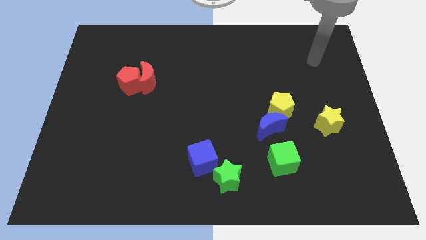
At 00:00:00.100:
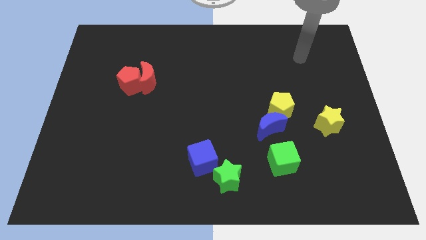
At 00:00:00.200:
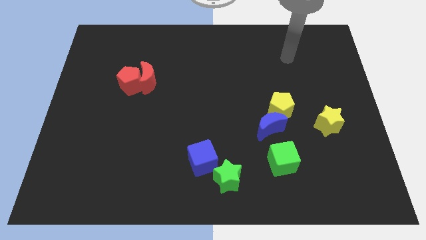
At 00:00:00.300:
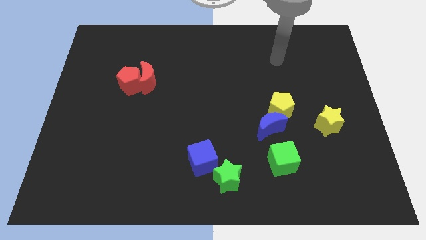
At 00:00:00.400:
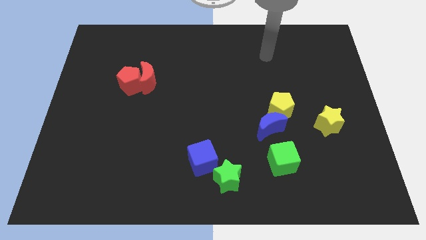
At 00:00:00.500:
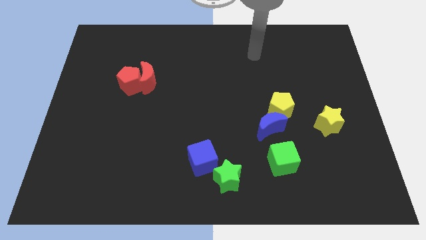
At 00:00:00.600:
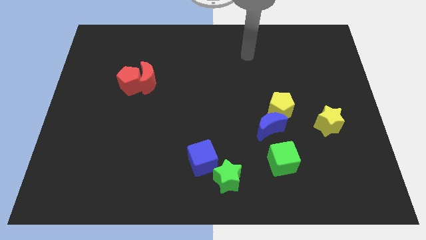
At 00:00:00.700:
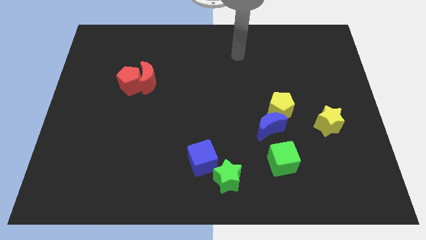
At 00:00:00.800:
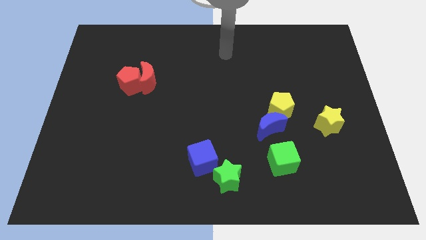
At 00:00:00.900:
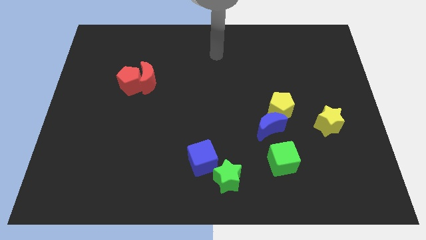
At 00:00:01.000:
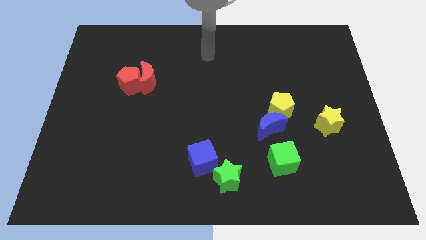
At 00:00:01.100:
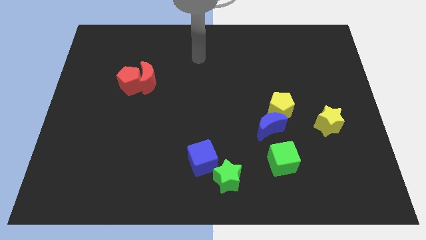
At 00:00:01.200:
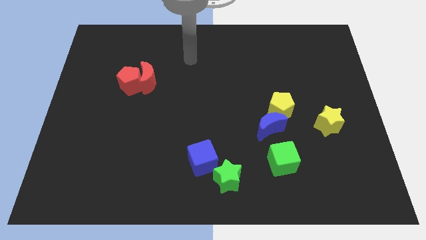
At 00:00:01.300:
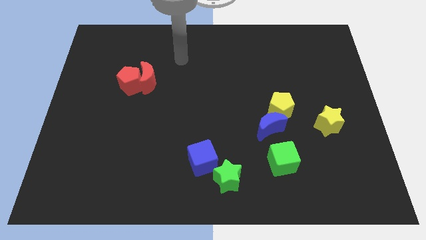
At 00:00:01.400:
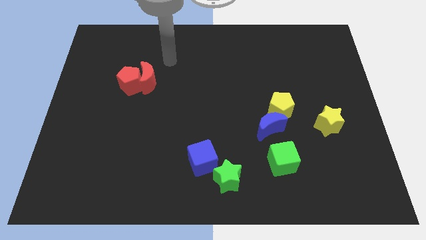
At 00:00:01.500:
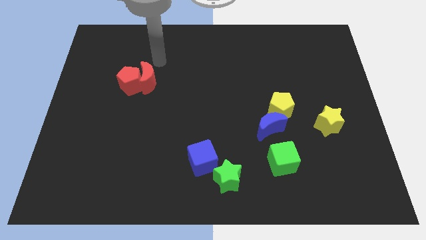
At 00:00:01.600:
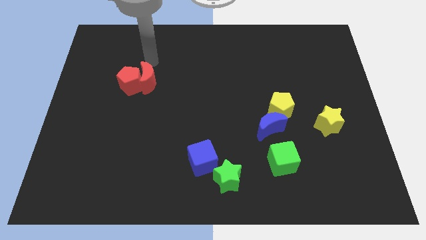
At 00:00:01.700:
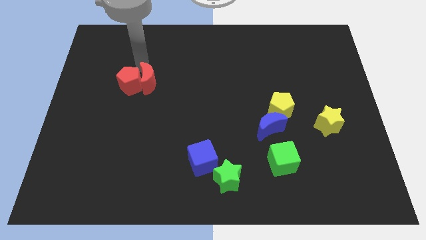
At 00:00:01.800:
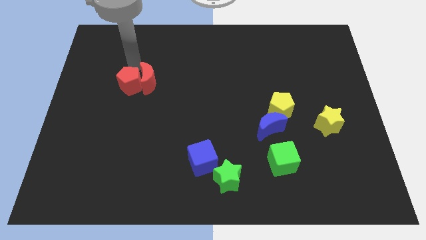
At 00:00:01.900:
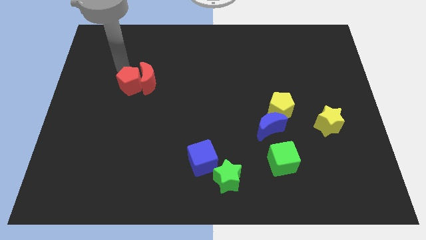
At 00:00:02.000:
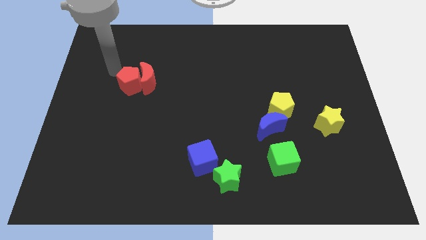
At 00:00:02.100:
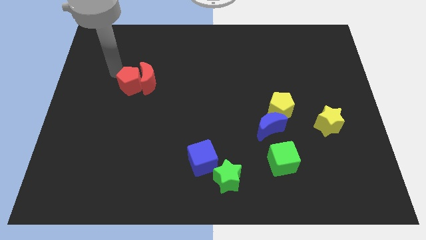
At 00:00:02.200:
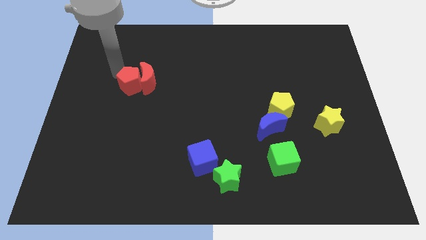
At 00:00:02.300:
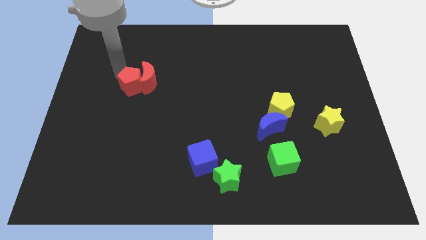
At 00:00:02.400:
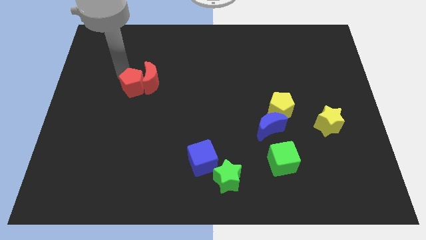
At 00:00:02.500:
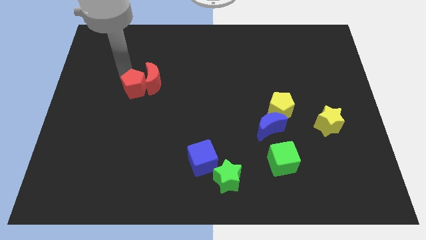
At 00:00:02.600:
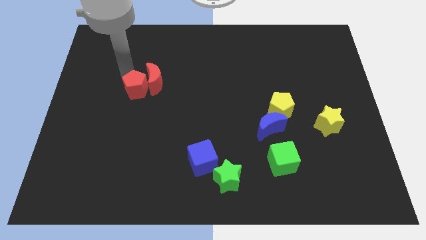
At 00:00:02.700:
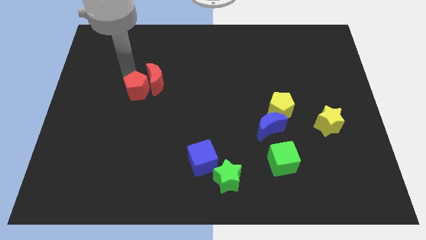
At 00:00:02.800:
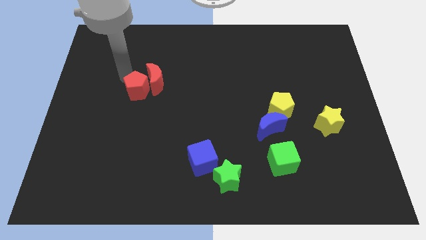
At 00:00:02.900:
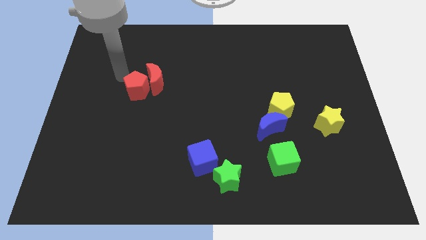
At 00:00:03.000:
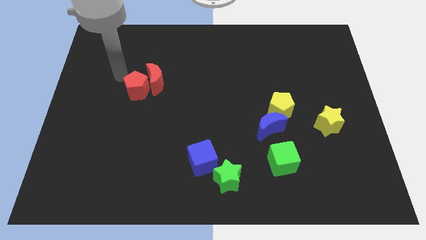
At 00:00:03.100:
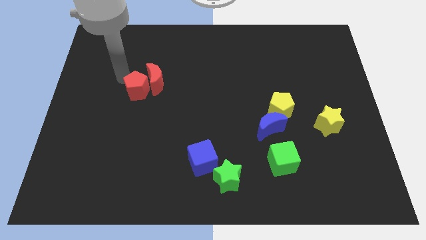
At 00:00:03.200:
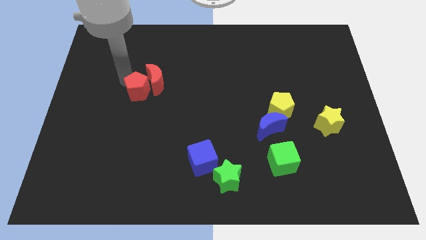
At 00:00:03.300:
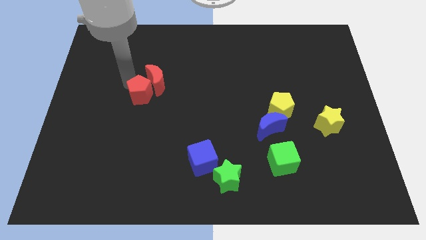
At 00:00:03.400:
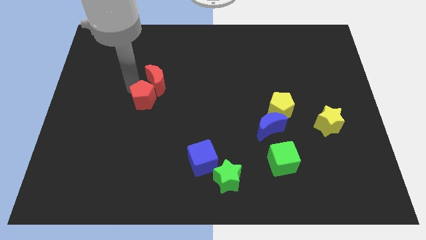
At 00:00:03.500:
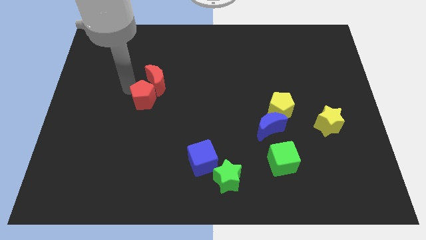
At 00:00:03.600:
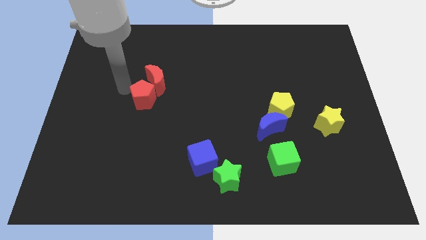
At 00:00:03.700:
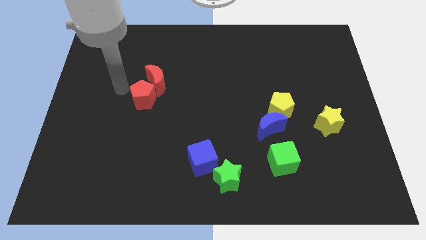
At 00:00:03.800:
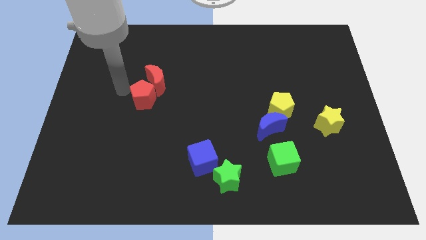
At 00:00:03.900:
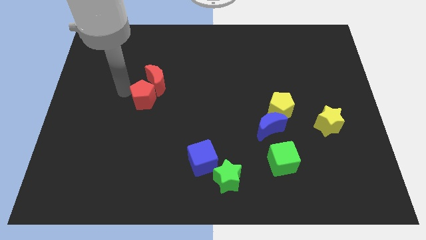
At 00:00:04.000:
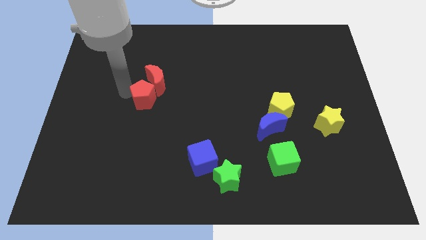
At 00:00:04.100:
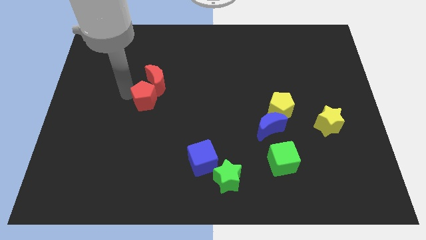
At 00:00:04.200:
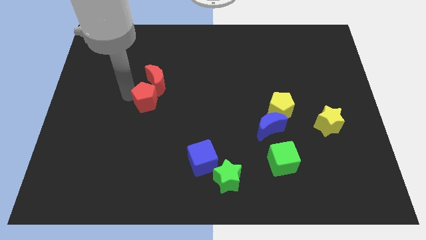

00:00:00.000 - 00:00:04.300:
move the red pentagon a bit downwards and then to the right

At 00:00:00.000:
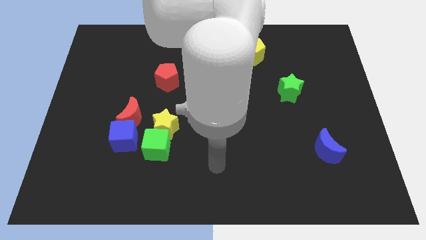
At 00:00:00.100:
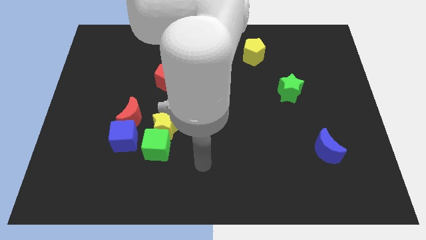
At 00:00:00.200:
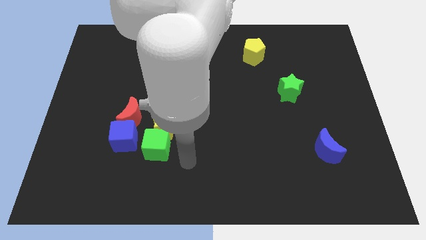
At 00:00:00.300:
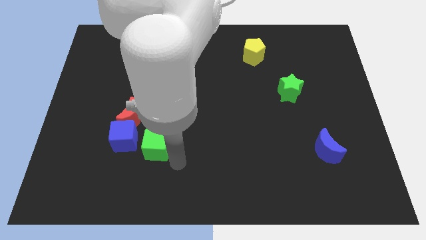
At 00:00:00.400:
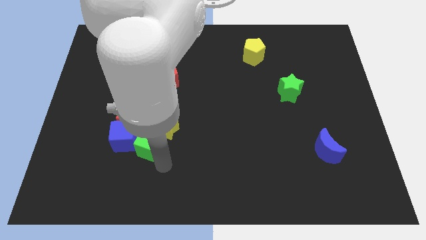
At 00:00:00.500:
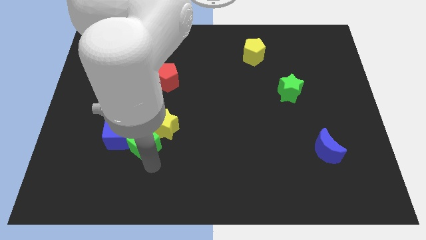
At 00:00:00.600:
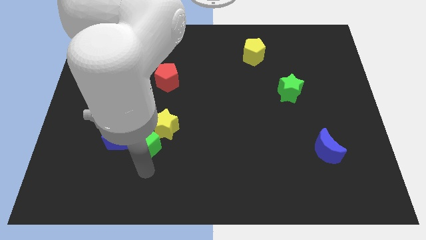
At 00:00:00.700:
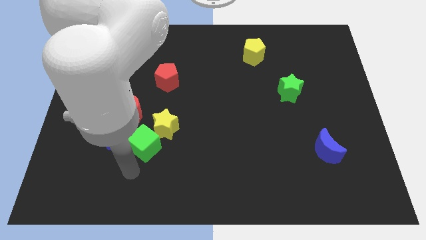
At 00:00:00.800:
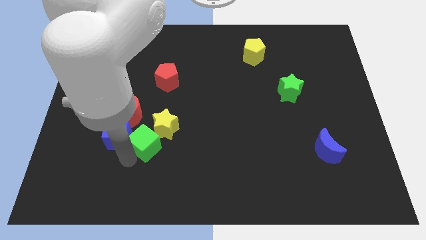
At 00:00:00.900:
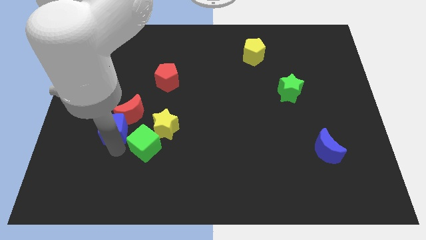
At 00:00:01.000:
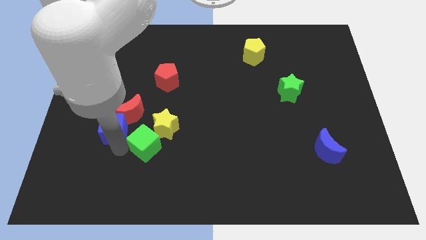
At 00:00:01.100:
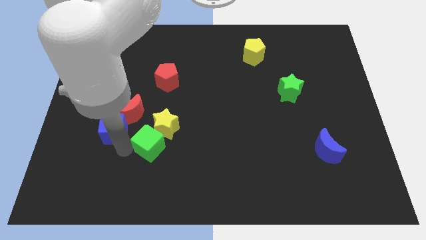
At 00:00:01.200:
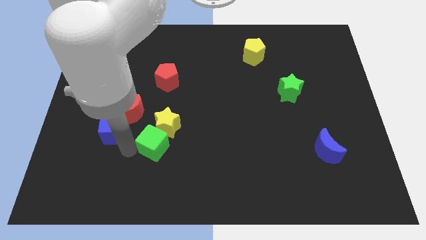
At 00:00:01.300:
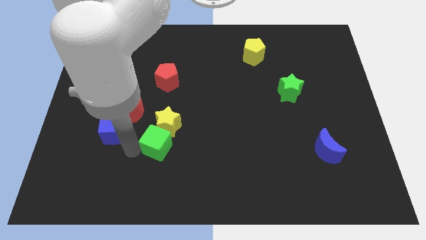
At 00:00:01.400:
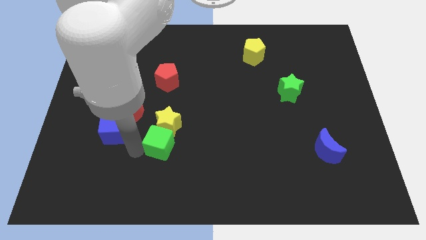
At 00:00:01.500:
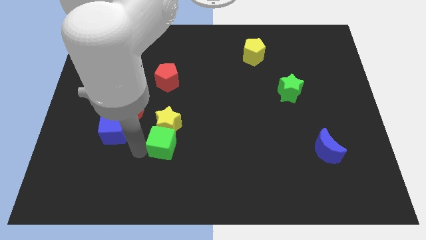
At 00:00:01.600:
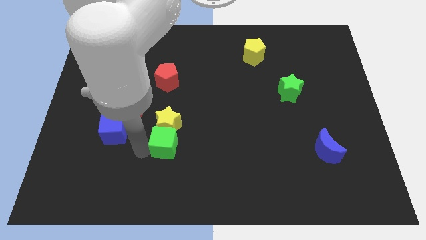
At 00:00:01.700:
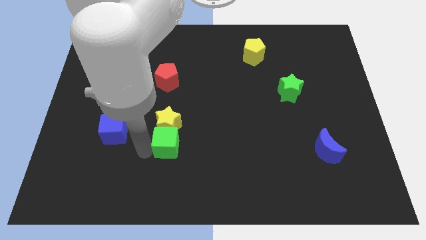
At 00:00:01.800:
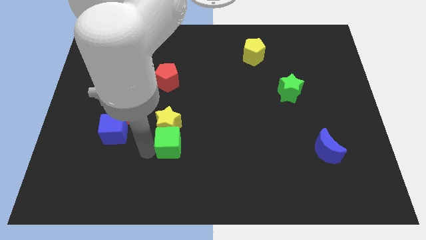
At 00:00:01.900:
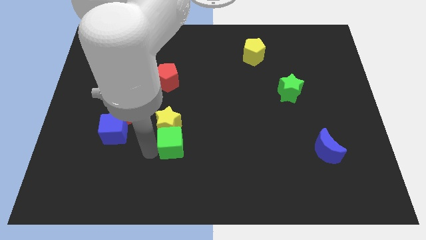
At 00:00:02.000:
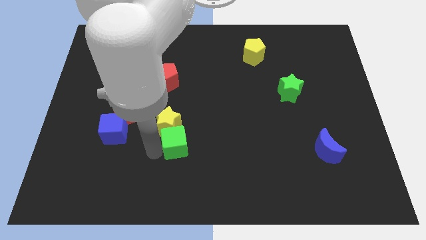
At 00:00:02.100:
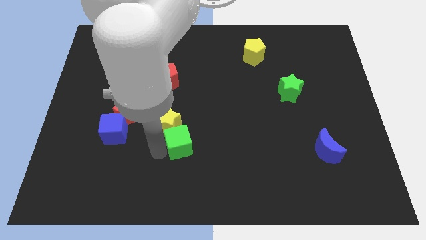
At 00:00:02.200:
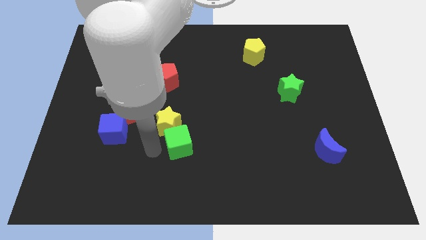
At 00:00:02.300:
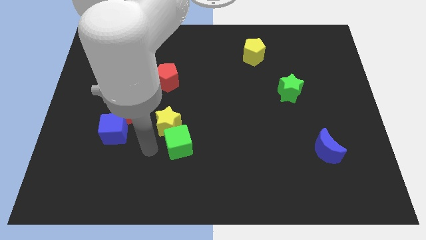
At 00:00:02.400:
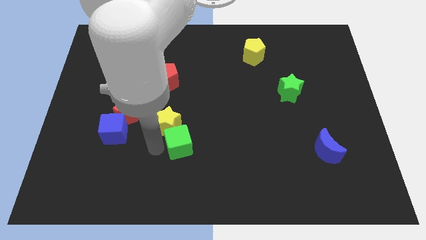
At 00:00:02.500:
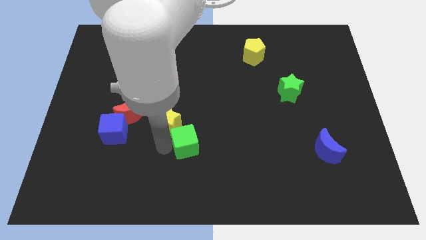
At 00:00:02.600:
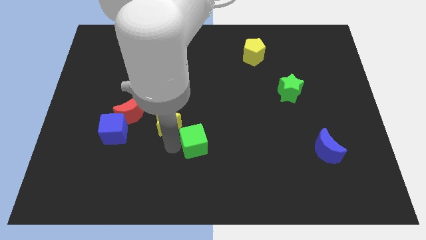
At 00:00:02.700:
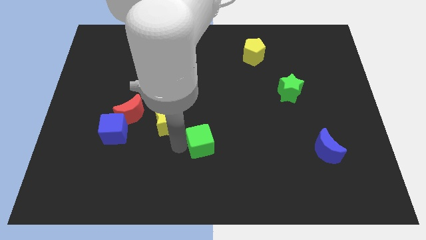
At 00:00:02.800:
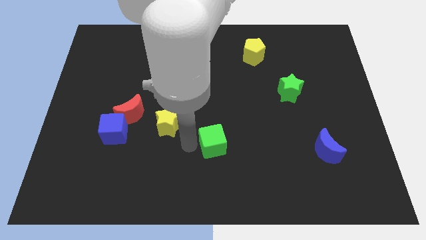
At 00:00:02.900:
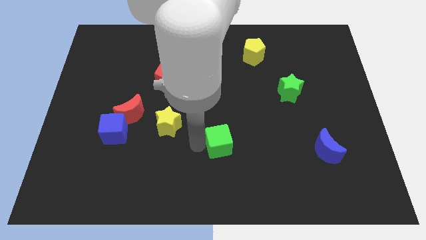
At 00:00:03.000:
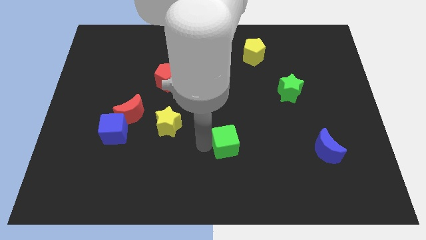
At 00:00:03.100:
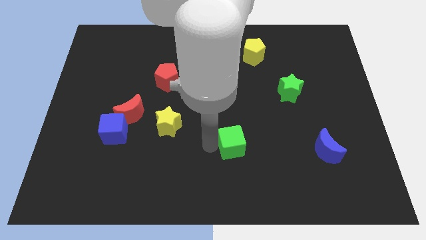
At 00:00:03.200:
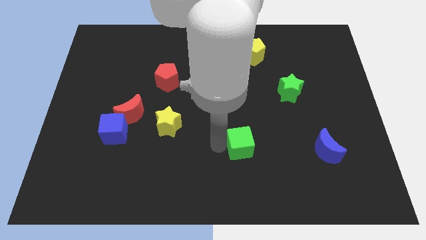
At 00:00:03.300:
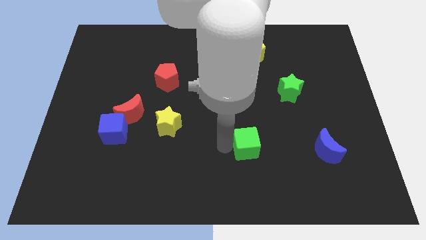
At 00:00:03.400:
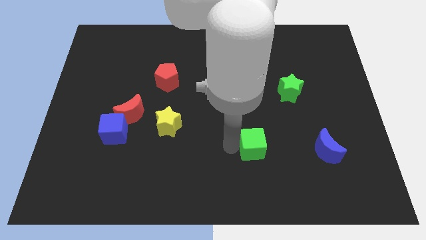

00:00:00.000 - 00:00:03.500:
move the green cube to the right

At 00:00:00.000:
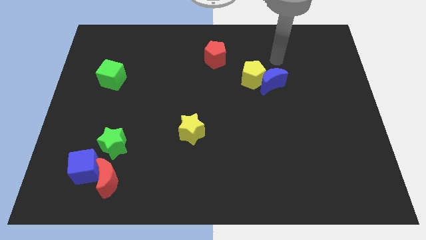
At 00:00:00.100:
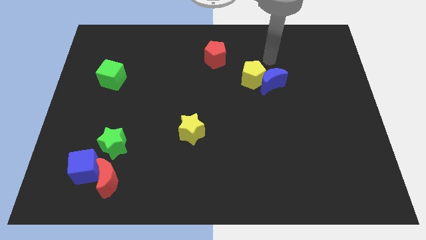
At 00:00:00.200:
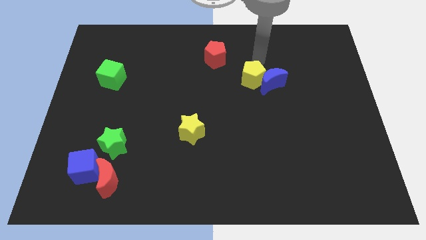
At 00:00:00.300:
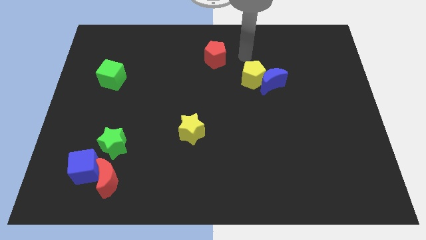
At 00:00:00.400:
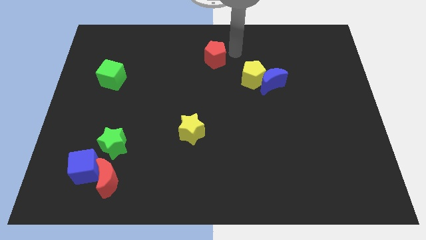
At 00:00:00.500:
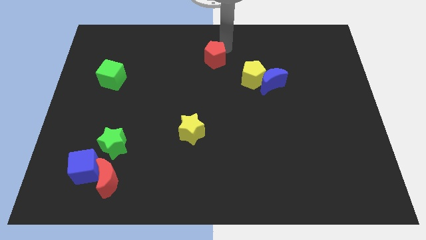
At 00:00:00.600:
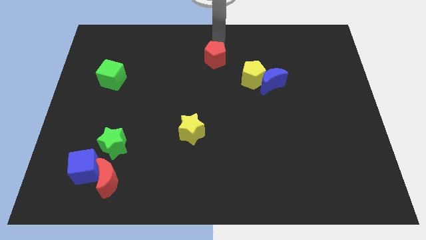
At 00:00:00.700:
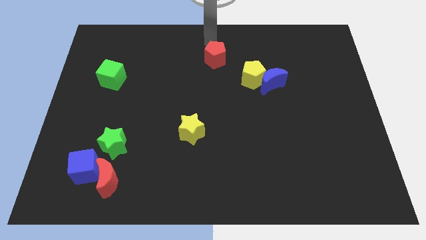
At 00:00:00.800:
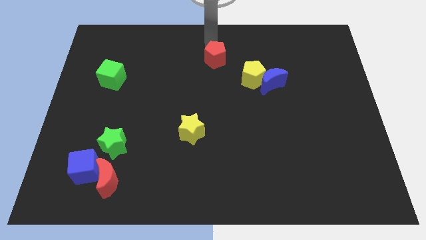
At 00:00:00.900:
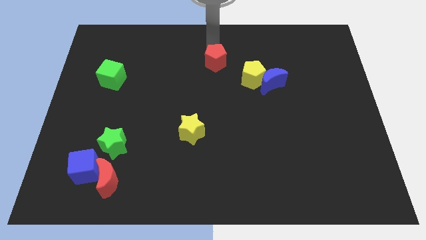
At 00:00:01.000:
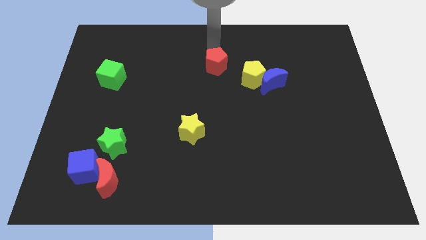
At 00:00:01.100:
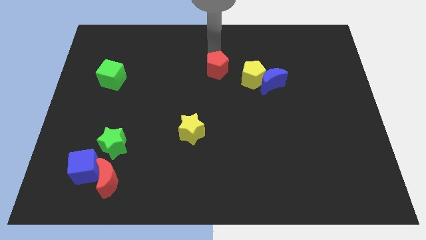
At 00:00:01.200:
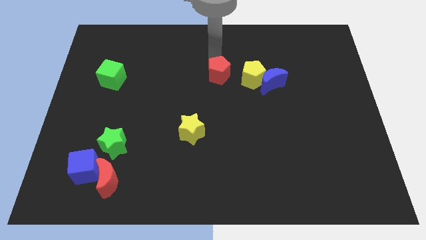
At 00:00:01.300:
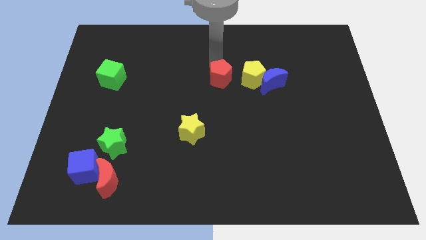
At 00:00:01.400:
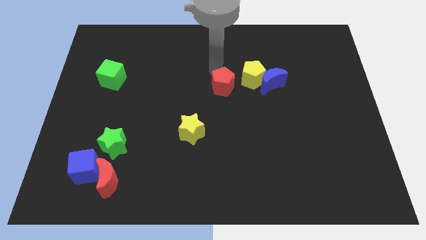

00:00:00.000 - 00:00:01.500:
slightly push the red pentagon down and right
